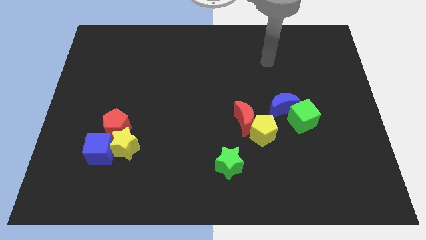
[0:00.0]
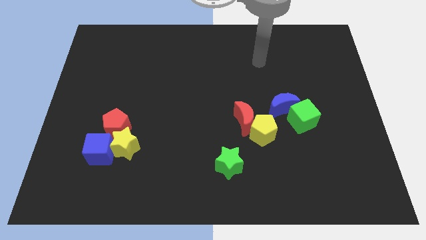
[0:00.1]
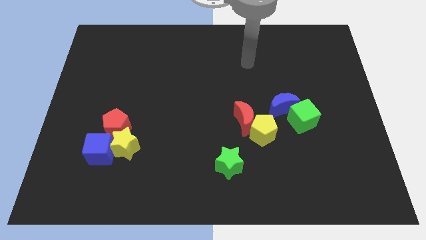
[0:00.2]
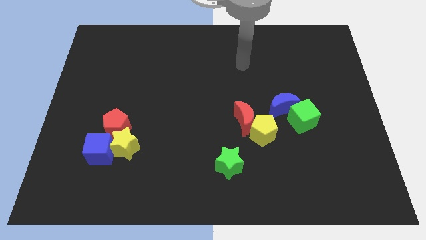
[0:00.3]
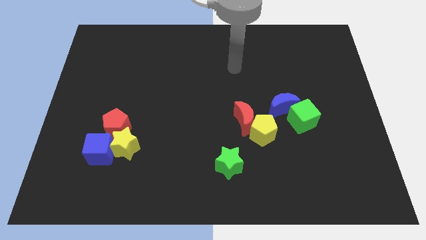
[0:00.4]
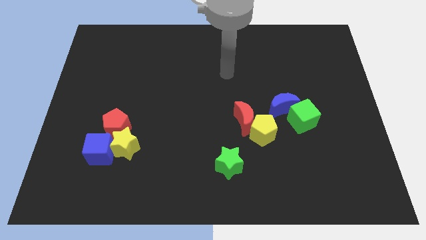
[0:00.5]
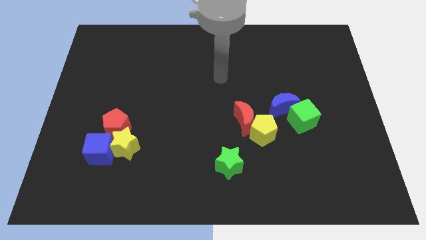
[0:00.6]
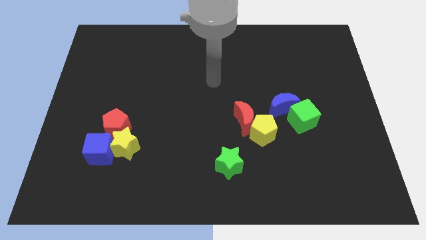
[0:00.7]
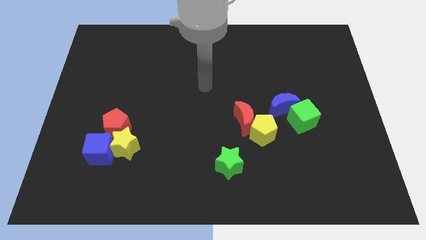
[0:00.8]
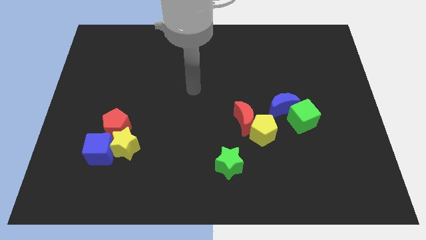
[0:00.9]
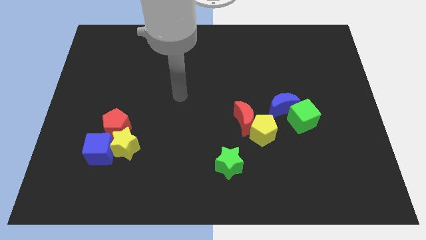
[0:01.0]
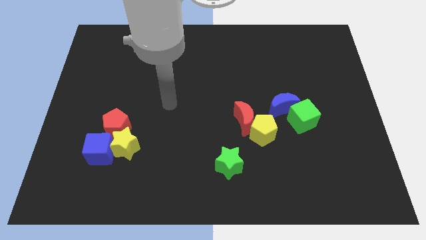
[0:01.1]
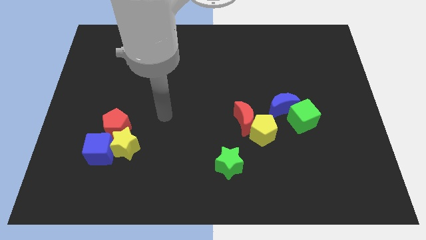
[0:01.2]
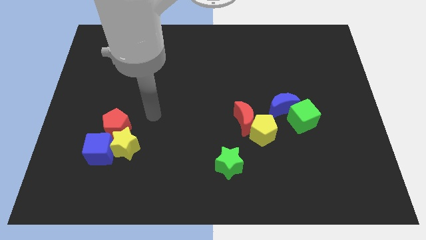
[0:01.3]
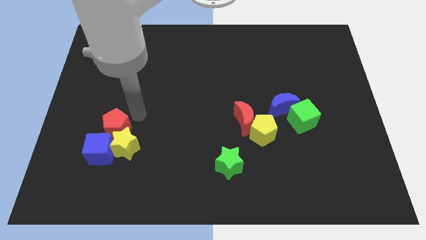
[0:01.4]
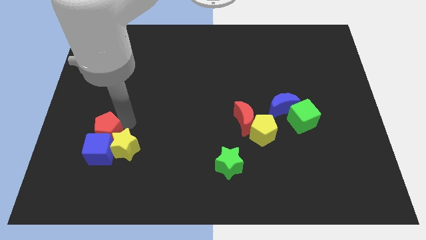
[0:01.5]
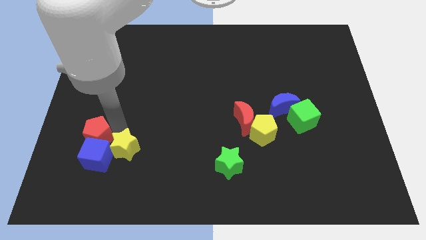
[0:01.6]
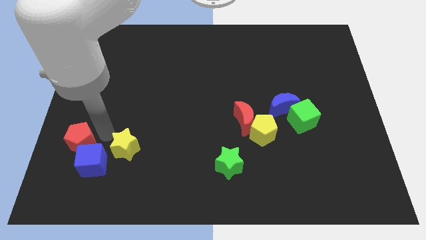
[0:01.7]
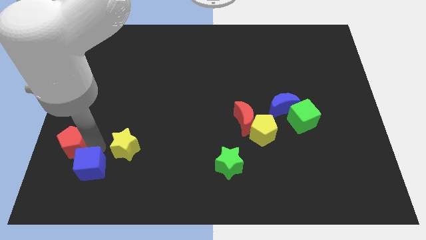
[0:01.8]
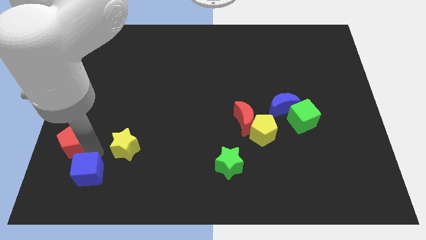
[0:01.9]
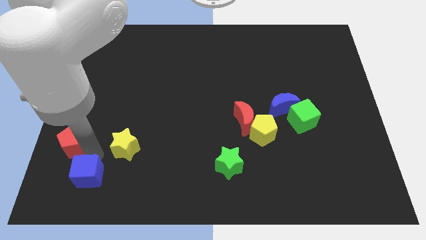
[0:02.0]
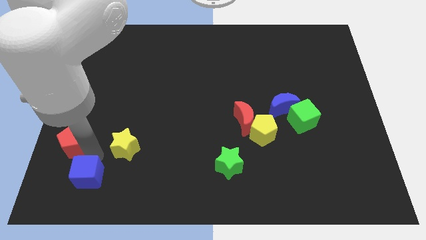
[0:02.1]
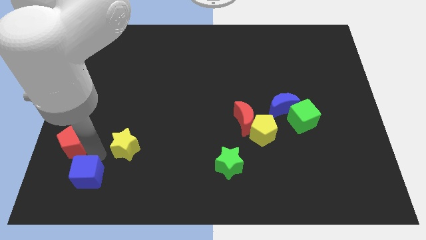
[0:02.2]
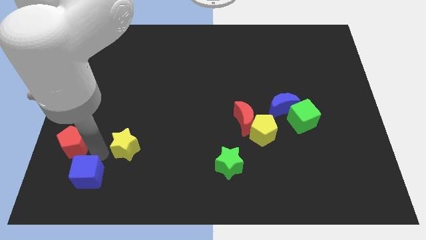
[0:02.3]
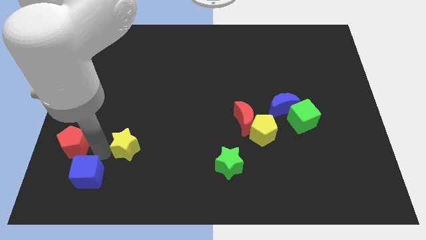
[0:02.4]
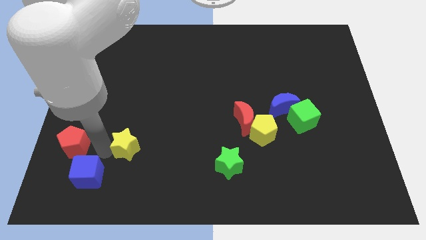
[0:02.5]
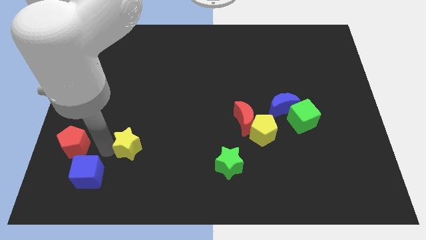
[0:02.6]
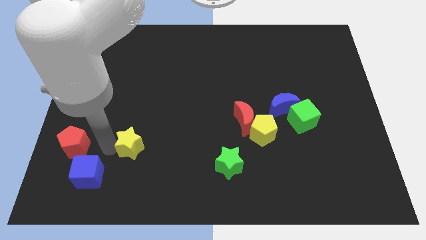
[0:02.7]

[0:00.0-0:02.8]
move the yellow star away from the blue cube and red pentagon

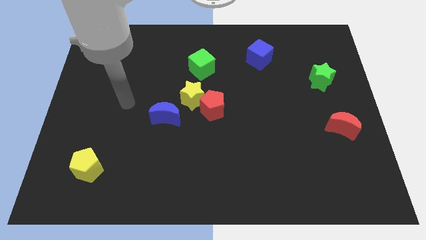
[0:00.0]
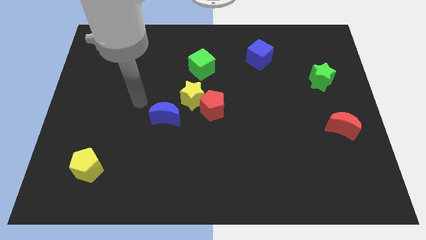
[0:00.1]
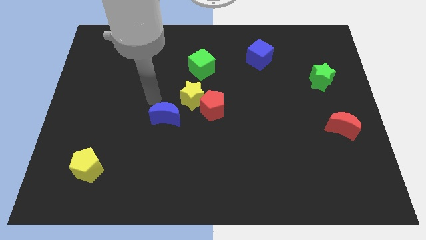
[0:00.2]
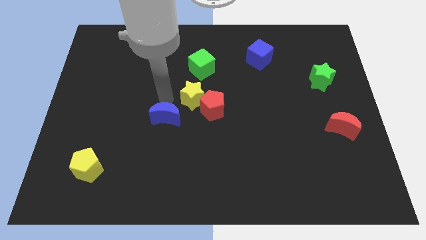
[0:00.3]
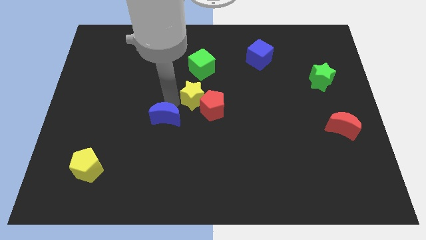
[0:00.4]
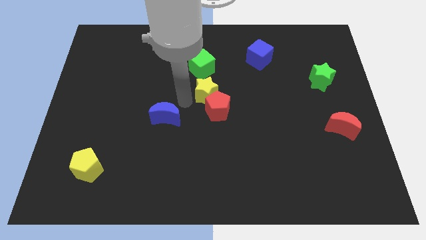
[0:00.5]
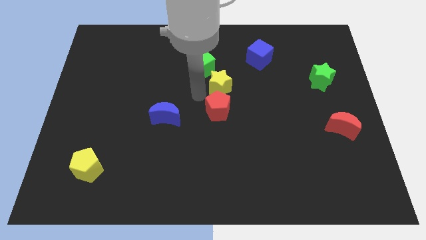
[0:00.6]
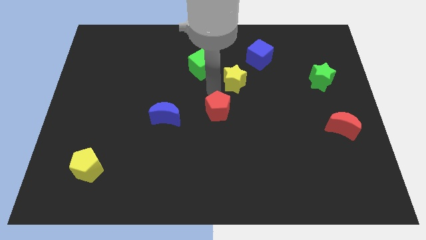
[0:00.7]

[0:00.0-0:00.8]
pull the red pentagon apart from the yellow star

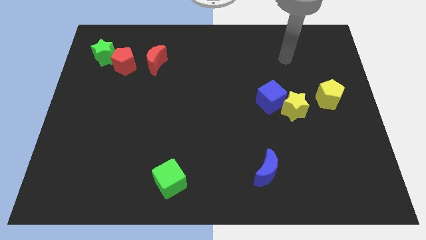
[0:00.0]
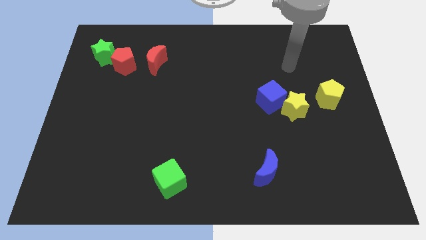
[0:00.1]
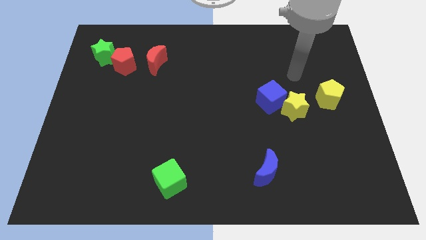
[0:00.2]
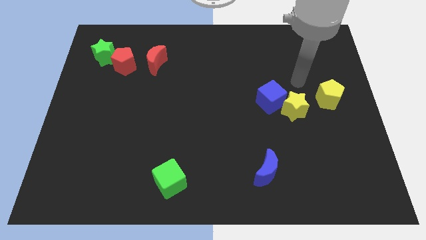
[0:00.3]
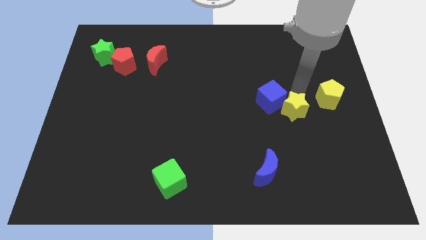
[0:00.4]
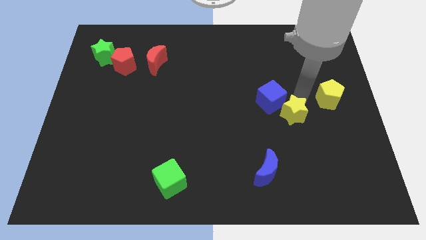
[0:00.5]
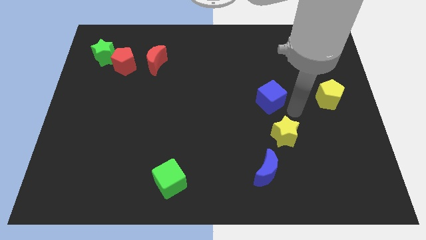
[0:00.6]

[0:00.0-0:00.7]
pull the blue cube apart from the yellow star

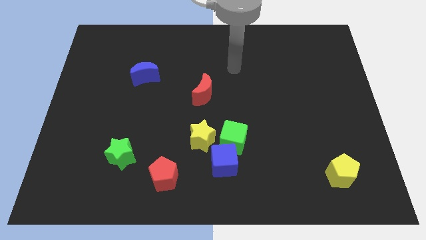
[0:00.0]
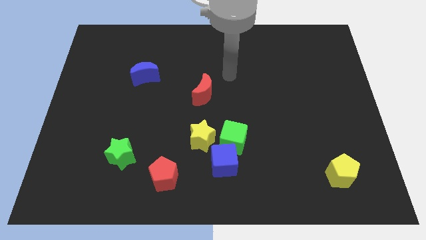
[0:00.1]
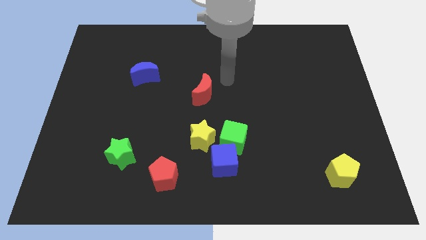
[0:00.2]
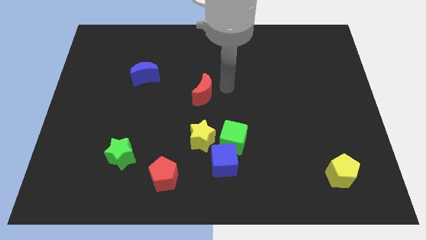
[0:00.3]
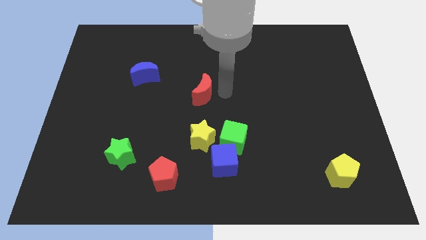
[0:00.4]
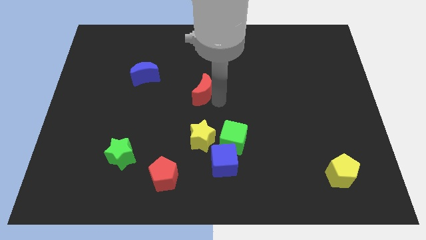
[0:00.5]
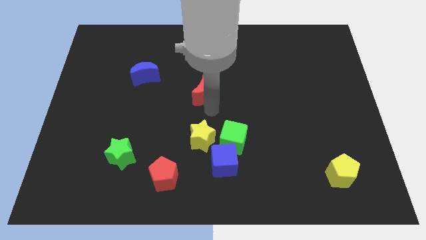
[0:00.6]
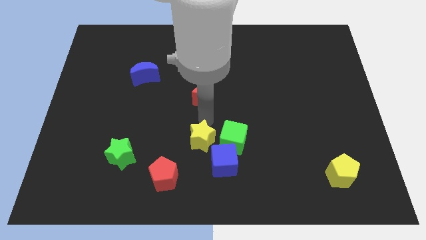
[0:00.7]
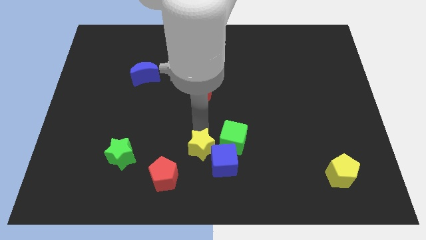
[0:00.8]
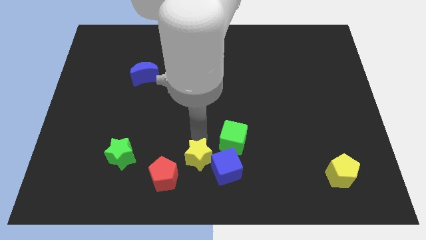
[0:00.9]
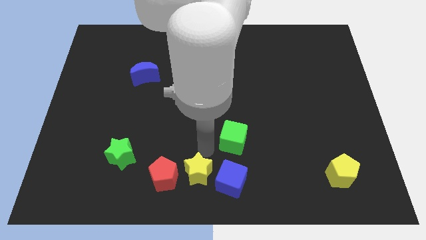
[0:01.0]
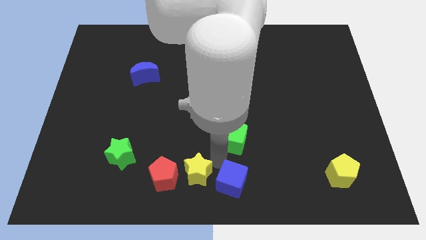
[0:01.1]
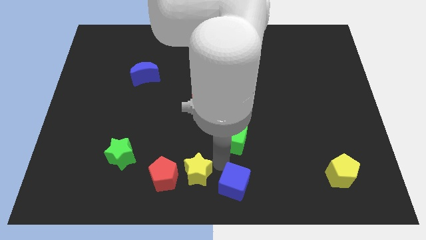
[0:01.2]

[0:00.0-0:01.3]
move the green cube away from the blue cube and yellow star

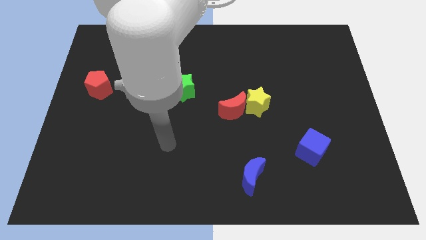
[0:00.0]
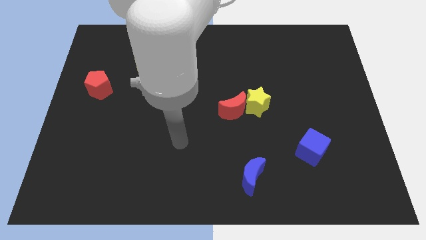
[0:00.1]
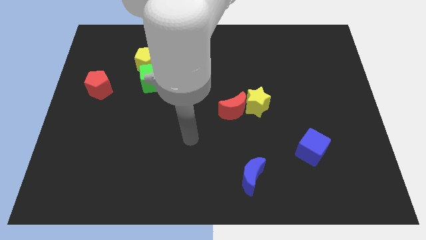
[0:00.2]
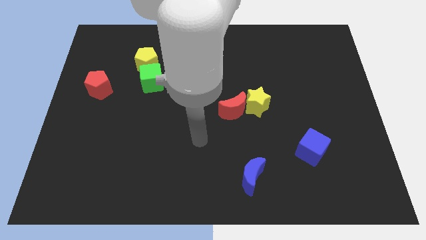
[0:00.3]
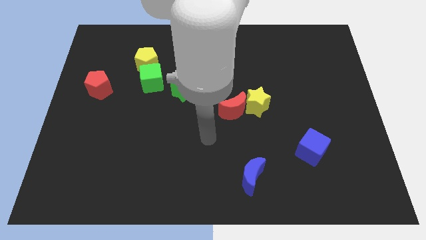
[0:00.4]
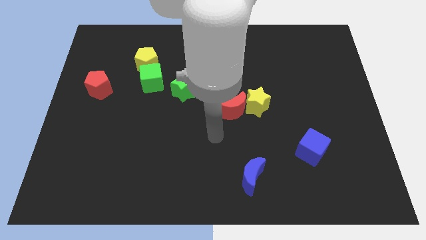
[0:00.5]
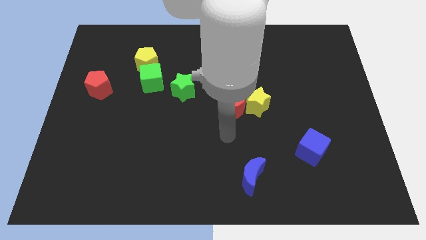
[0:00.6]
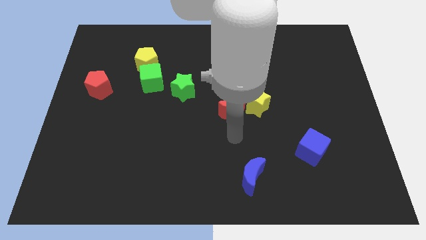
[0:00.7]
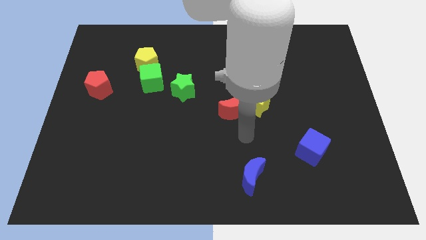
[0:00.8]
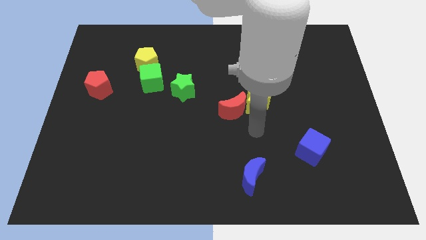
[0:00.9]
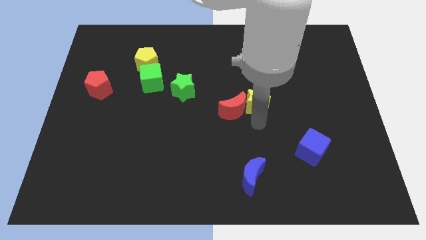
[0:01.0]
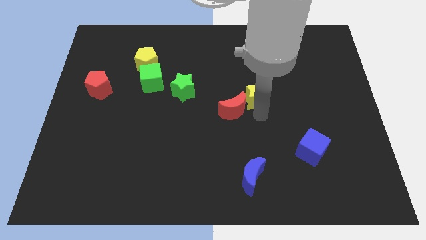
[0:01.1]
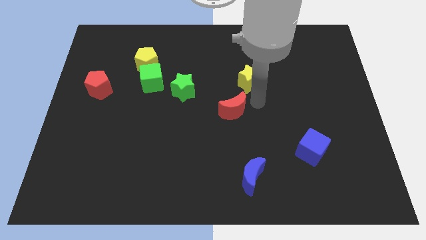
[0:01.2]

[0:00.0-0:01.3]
move the red moon away from the yellow star

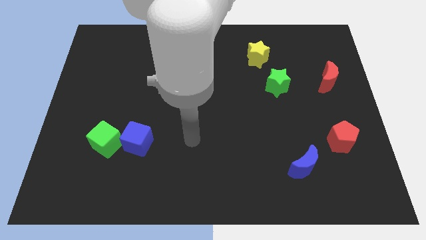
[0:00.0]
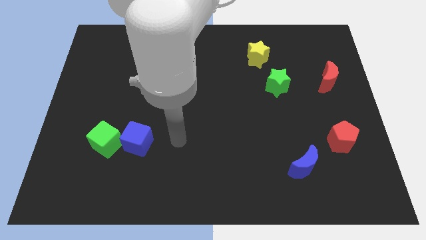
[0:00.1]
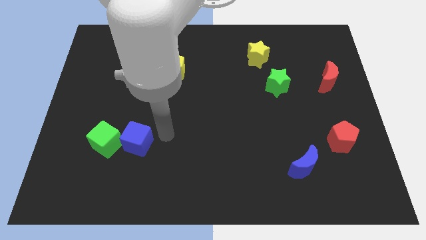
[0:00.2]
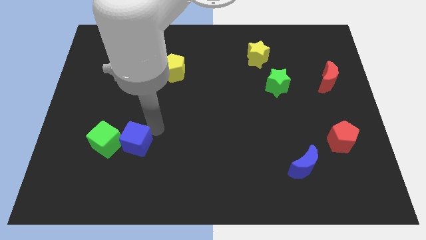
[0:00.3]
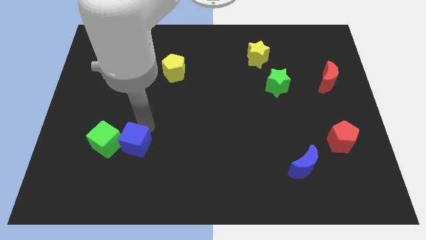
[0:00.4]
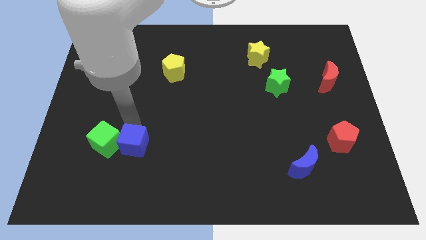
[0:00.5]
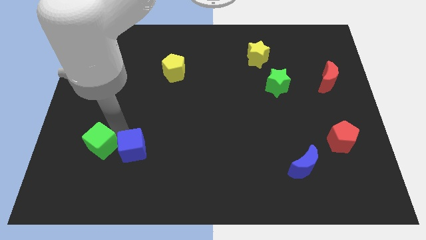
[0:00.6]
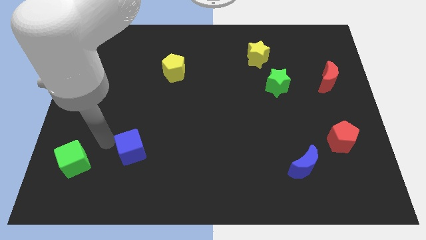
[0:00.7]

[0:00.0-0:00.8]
pull the blue cube apart from the green cube

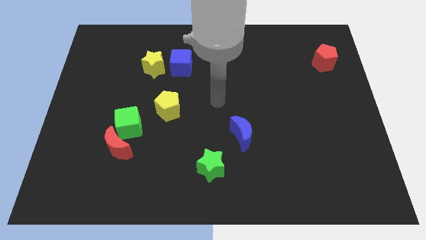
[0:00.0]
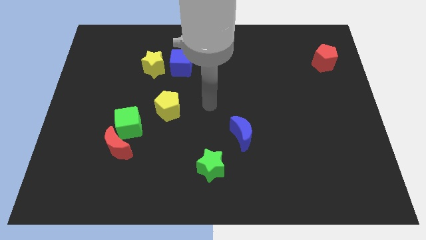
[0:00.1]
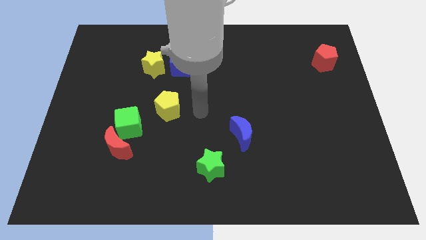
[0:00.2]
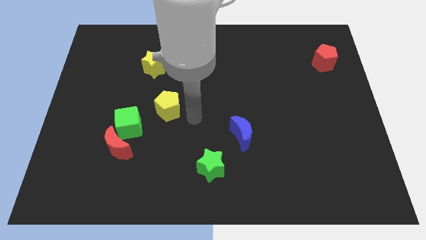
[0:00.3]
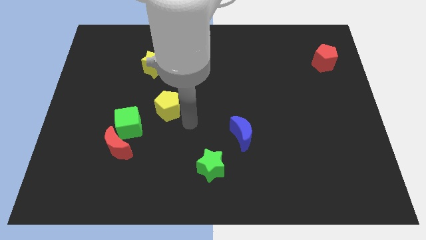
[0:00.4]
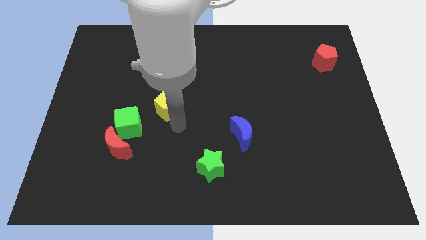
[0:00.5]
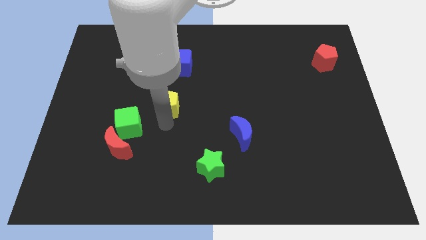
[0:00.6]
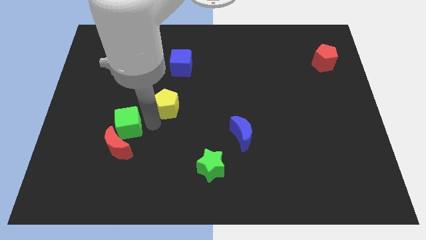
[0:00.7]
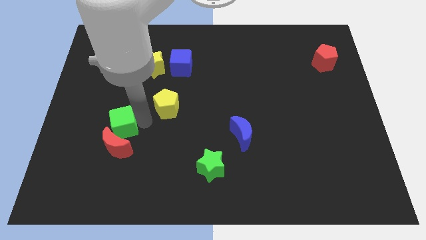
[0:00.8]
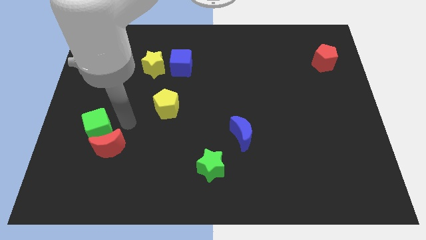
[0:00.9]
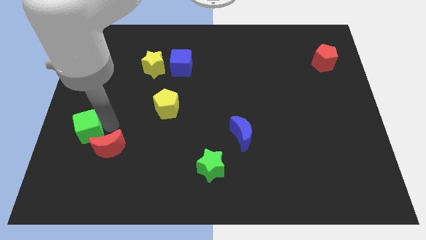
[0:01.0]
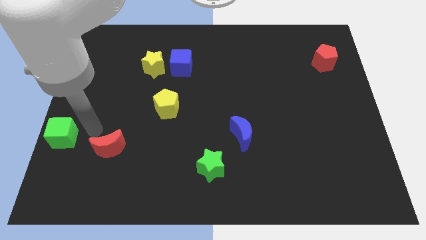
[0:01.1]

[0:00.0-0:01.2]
separate the red moon from the green cube

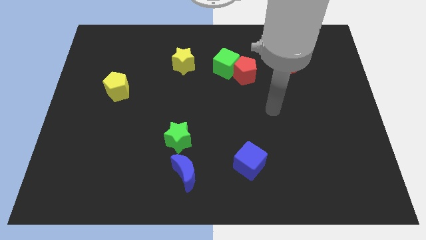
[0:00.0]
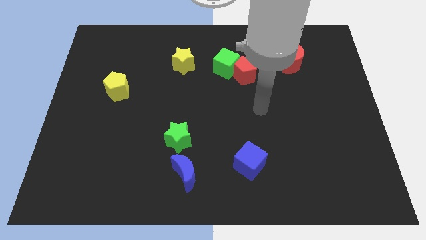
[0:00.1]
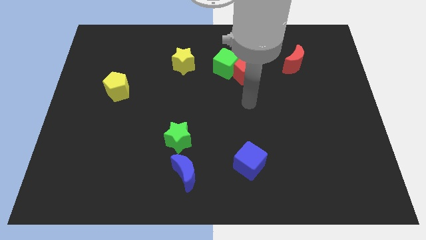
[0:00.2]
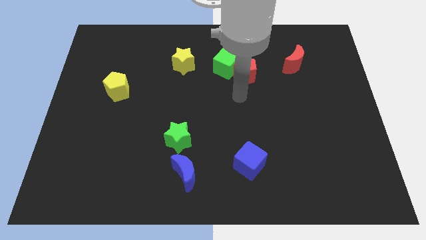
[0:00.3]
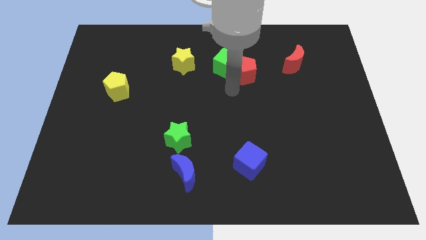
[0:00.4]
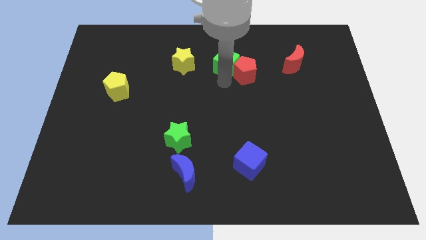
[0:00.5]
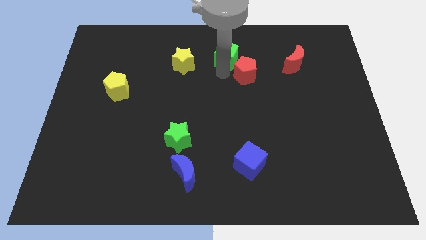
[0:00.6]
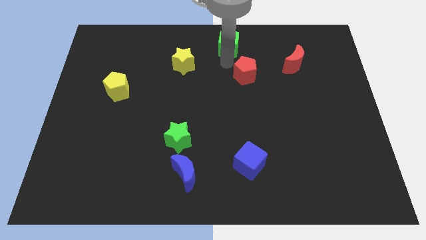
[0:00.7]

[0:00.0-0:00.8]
move the red pentagon away from the green cube
